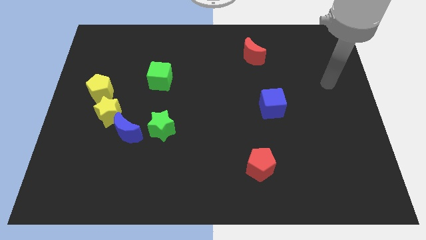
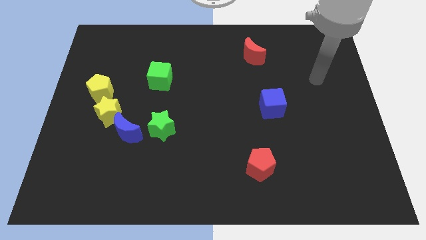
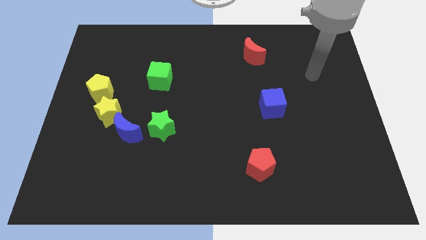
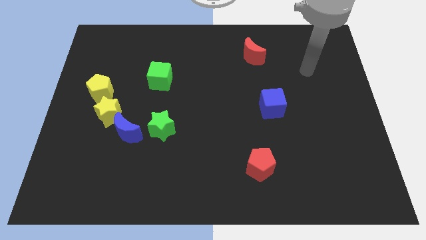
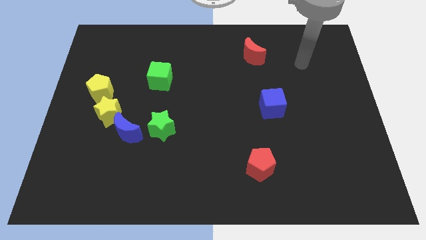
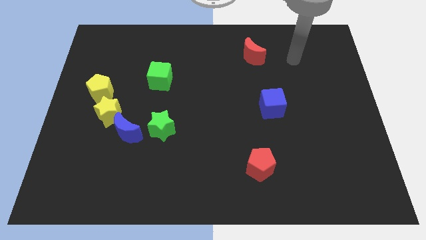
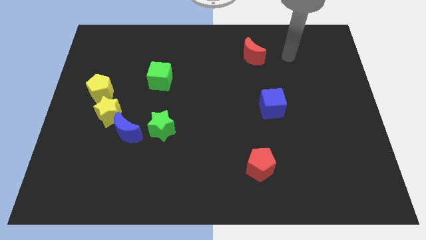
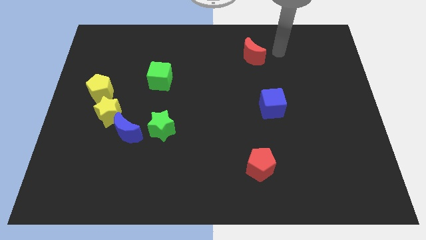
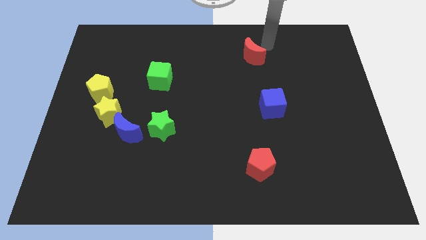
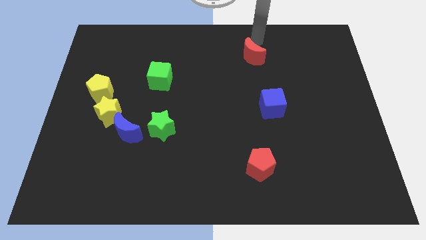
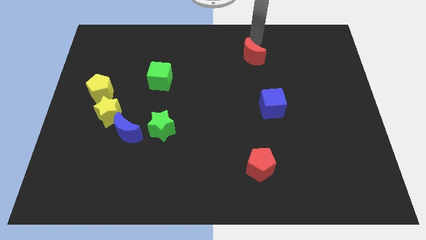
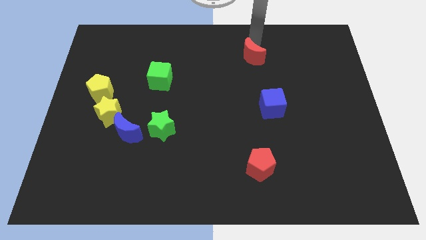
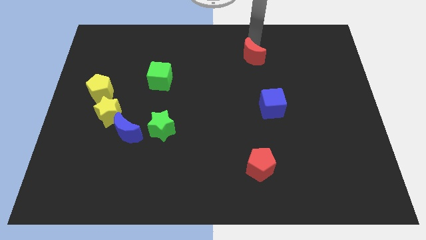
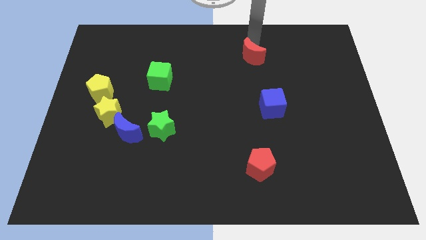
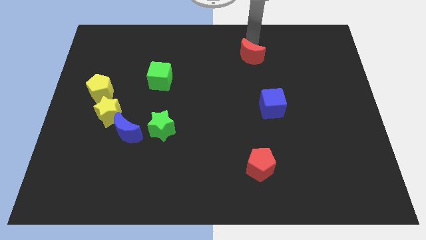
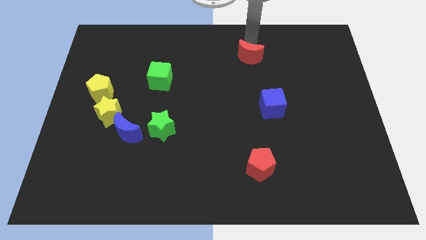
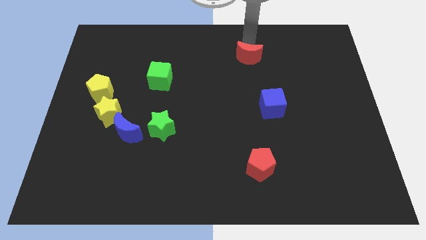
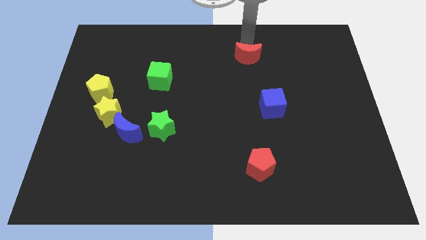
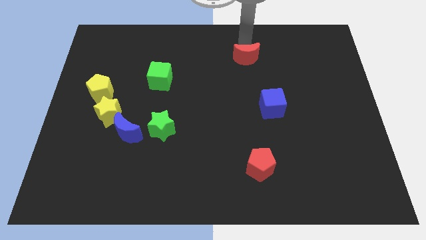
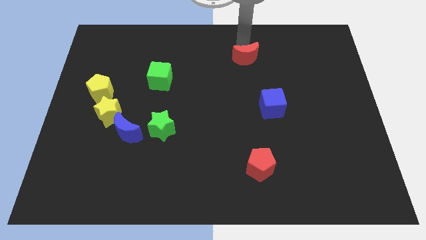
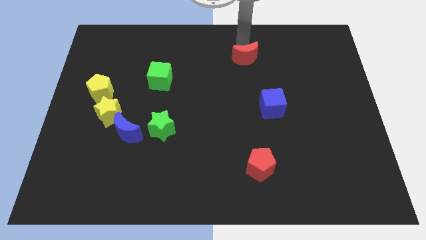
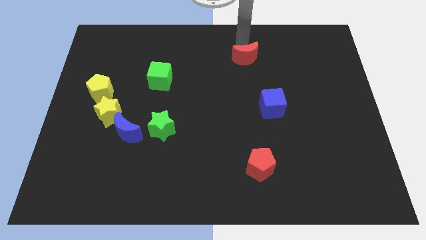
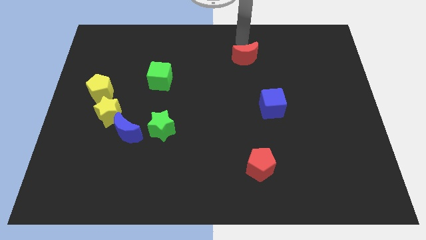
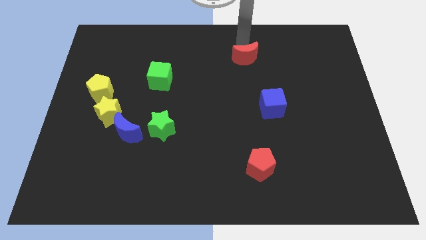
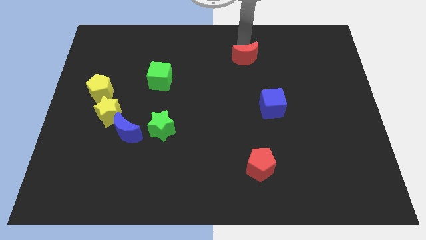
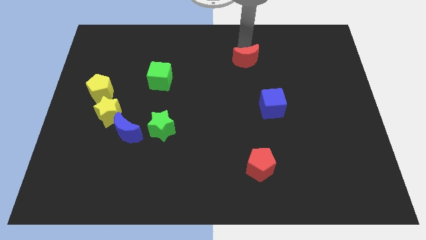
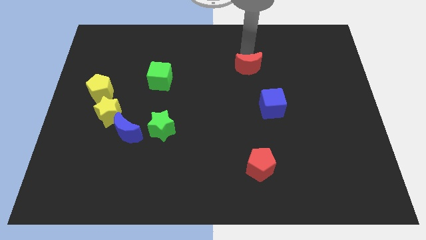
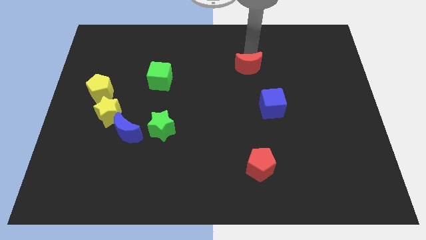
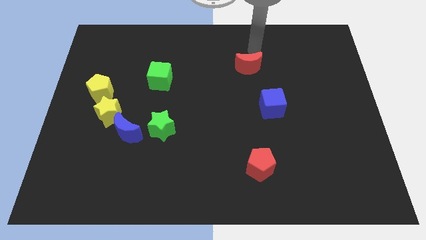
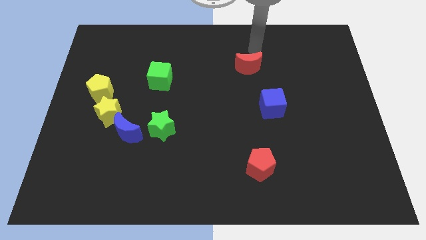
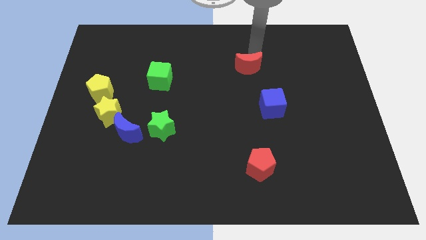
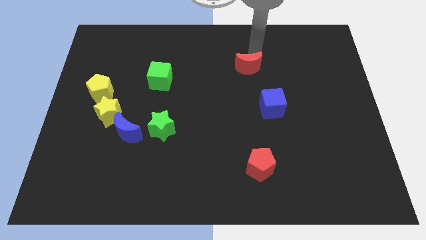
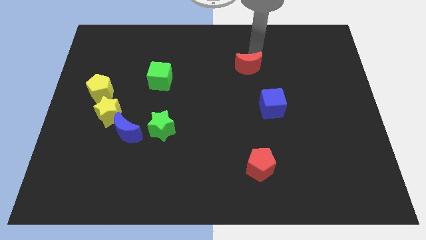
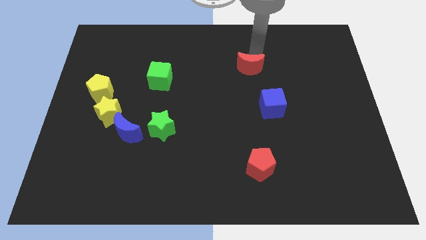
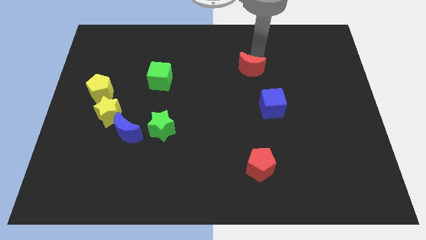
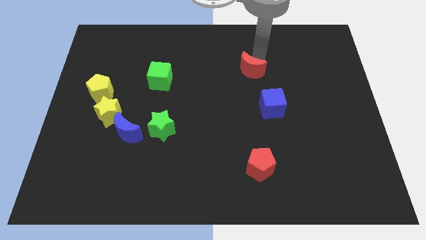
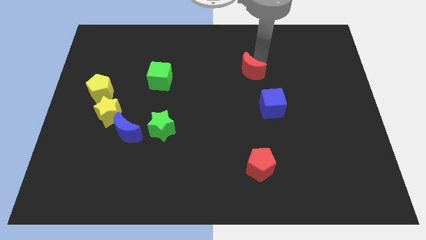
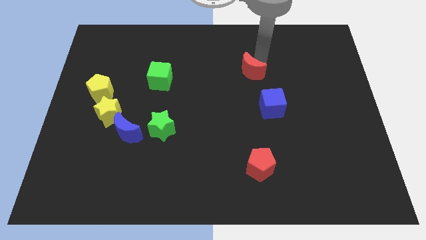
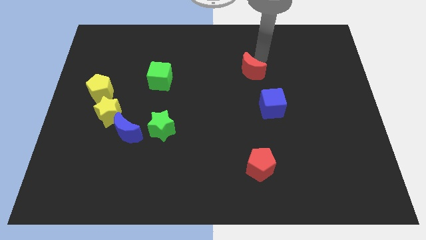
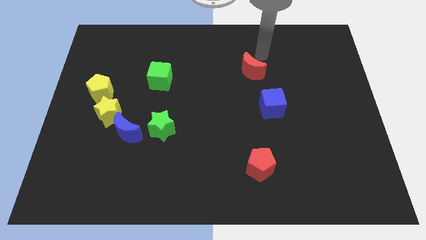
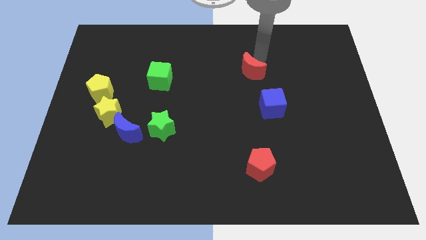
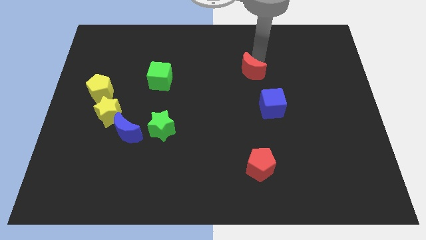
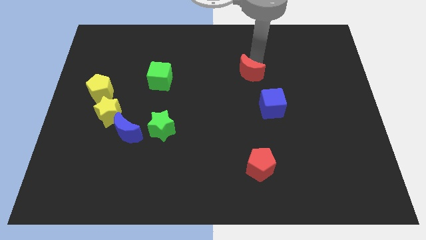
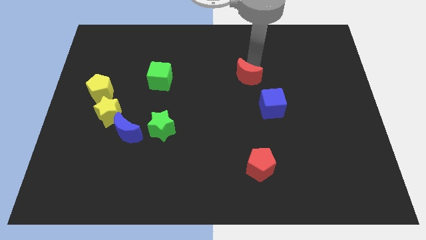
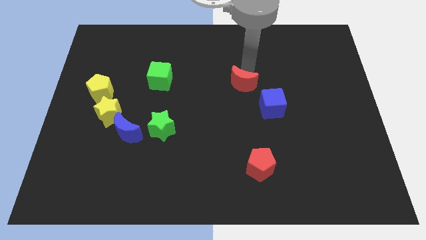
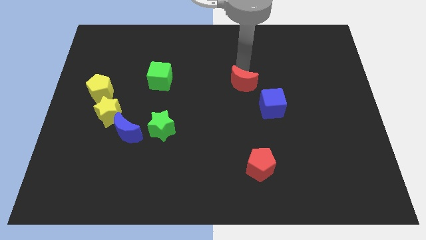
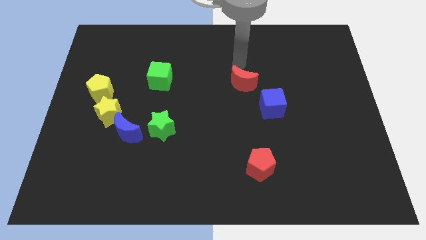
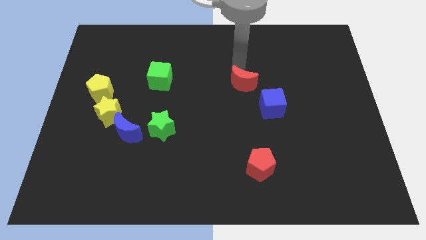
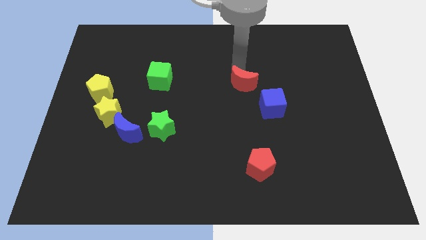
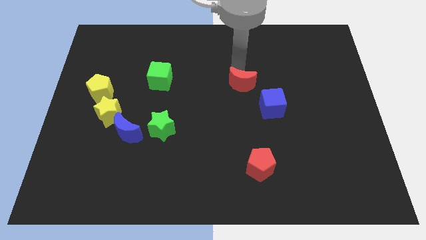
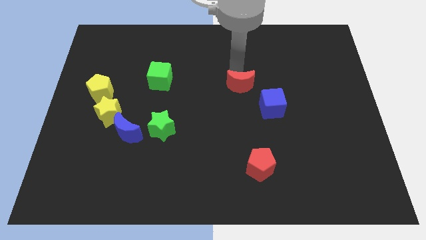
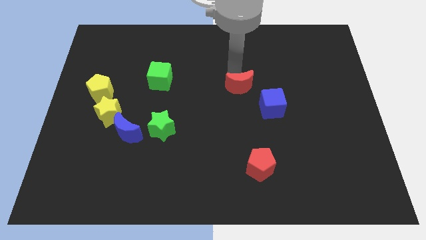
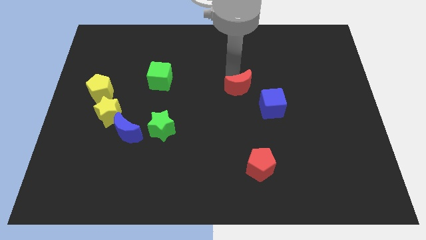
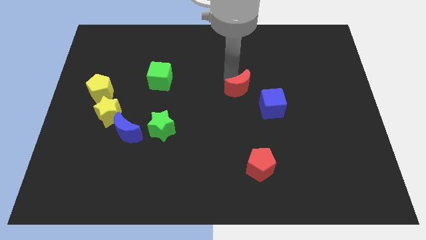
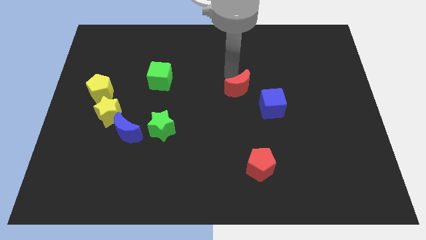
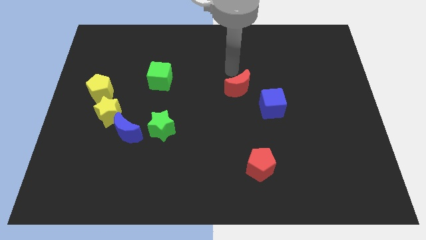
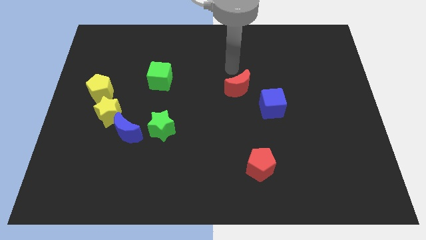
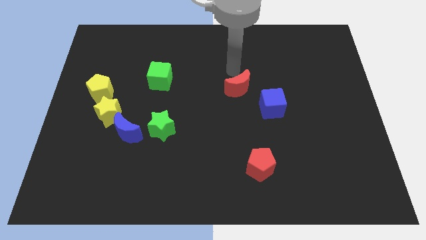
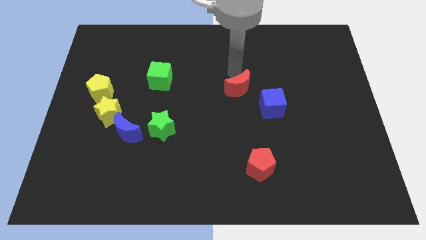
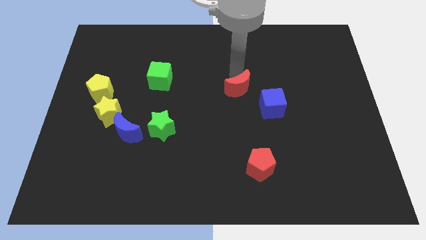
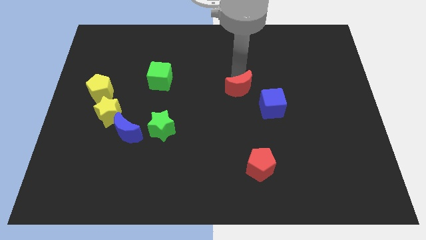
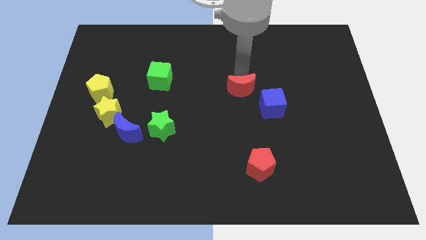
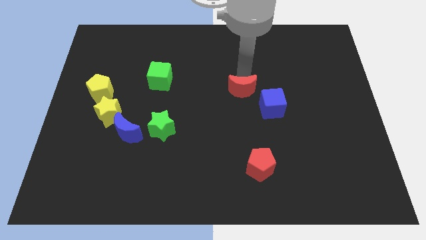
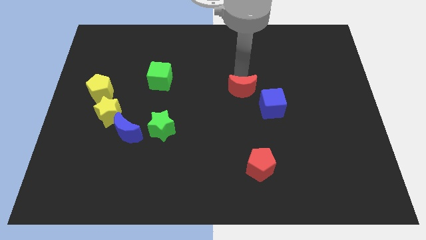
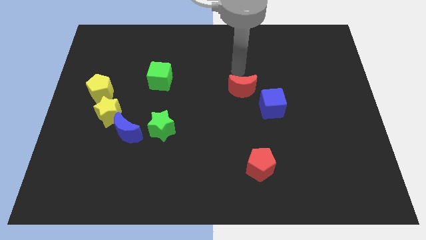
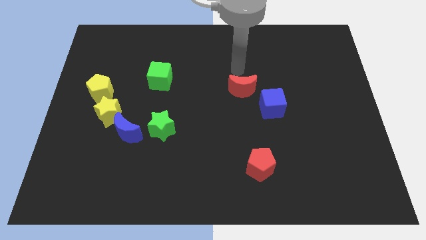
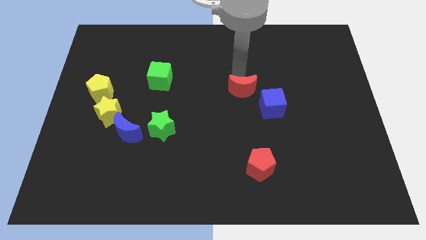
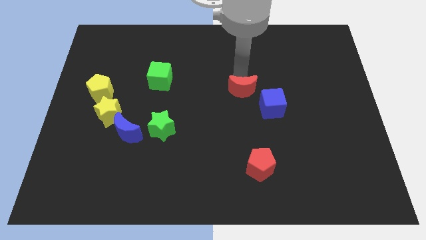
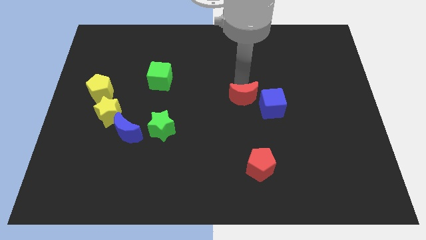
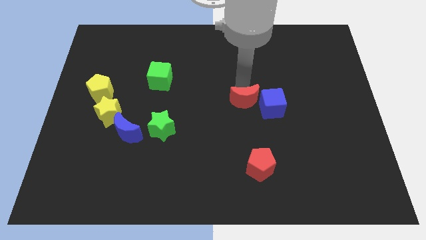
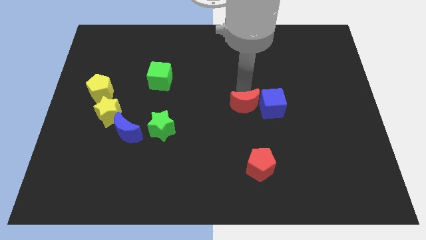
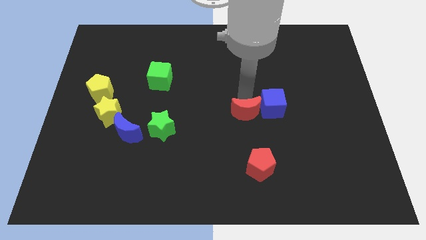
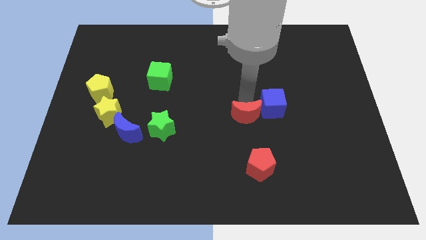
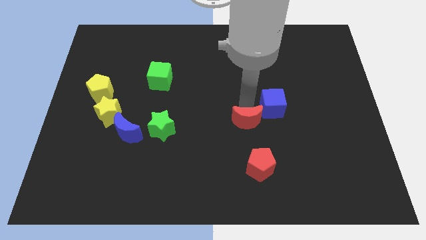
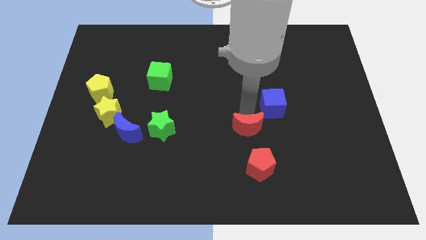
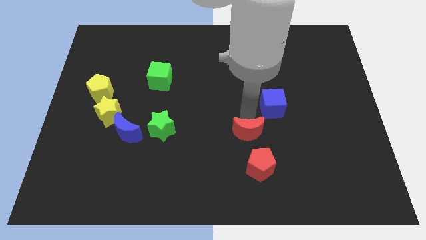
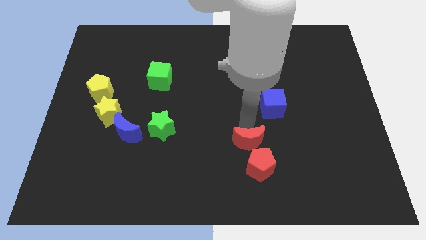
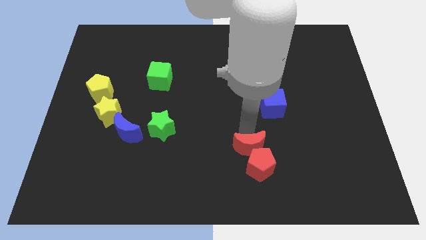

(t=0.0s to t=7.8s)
push the red moon to the red pentagon
